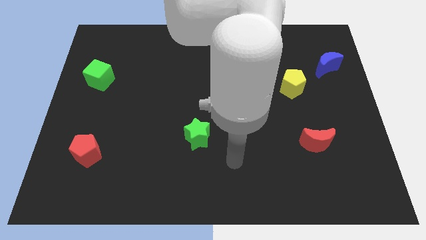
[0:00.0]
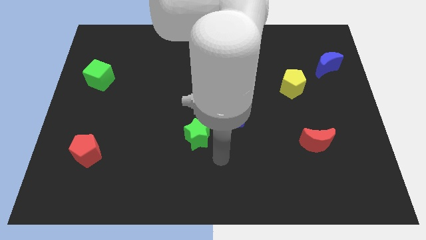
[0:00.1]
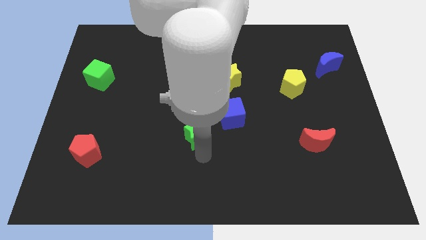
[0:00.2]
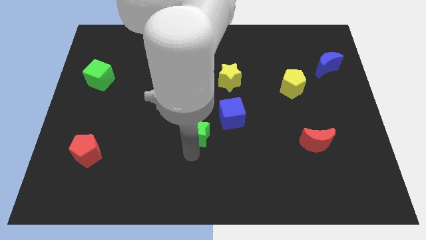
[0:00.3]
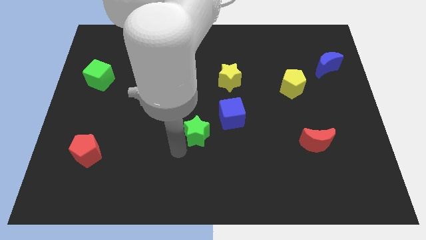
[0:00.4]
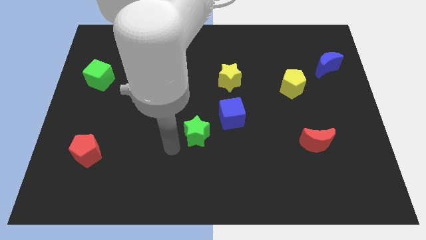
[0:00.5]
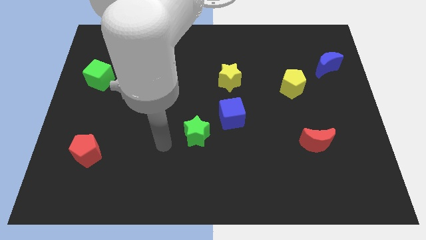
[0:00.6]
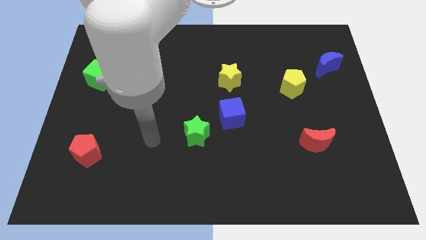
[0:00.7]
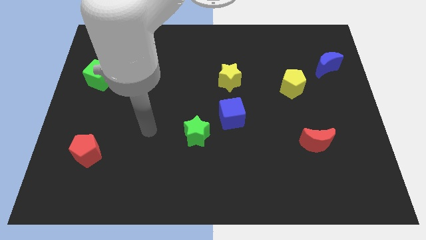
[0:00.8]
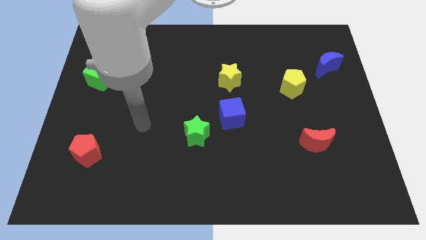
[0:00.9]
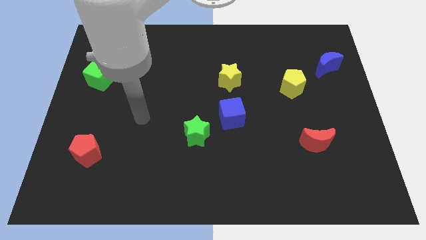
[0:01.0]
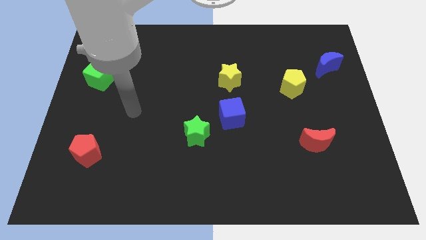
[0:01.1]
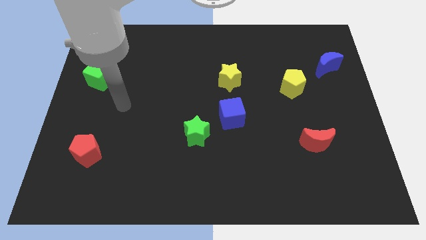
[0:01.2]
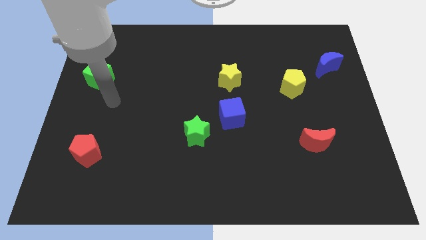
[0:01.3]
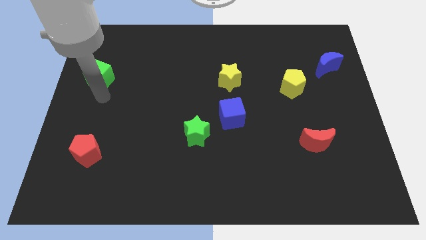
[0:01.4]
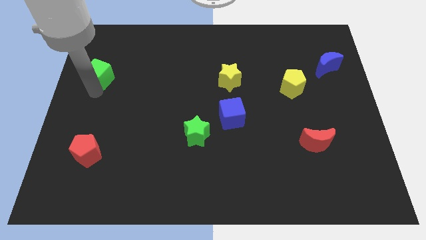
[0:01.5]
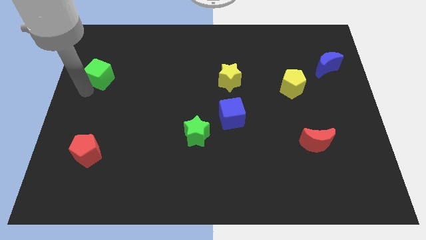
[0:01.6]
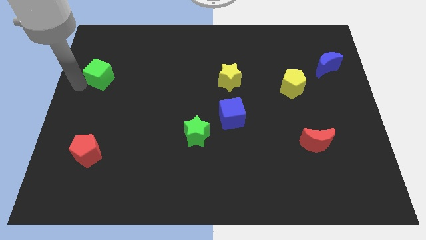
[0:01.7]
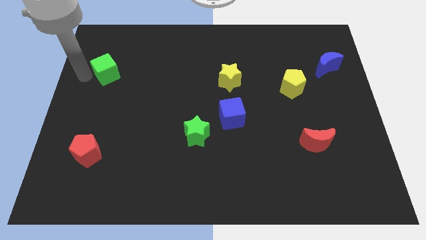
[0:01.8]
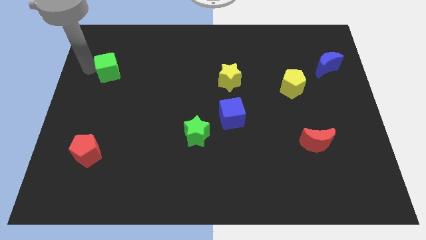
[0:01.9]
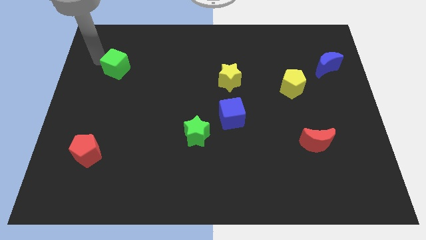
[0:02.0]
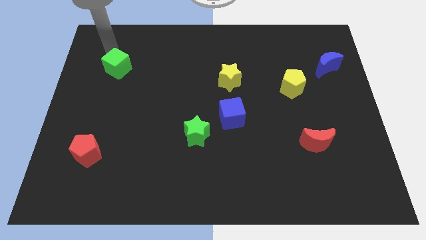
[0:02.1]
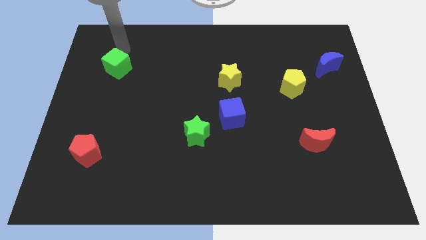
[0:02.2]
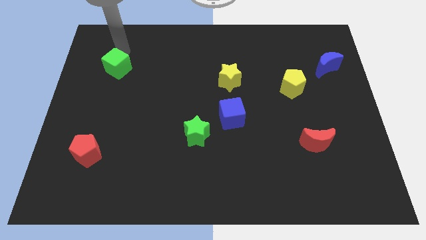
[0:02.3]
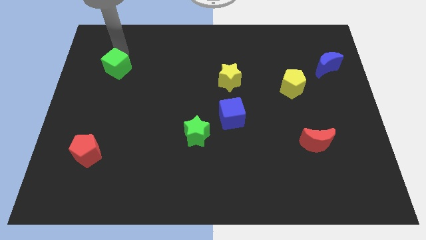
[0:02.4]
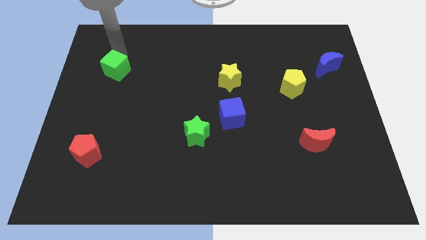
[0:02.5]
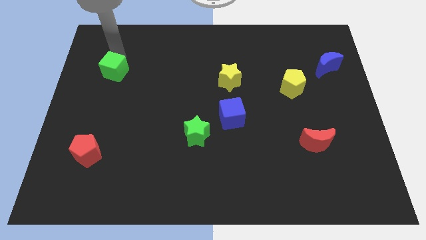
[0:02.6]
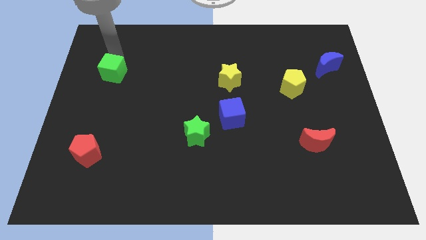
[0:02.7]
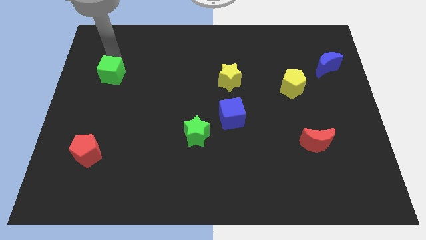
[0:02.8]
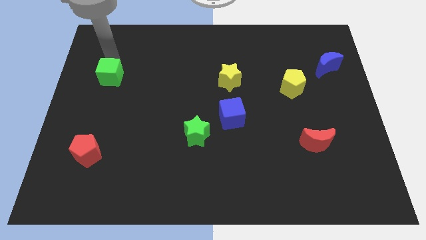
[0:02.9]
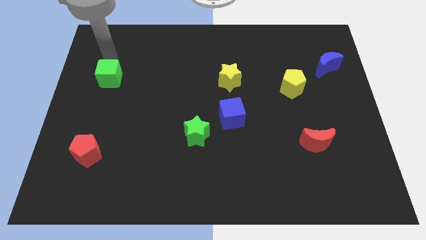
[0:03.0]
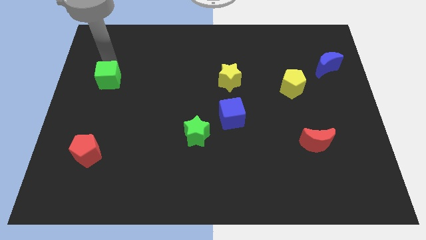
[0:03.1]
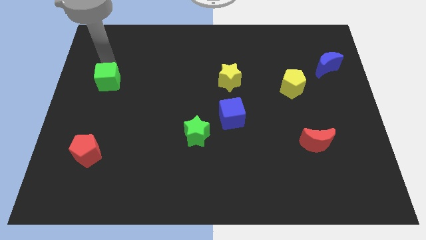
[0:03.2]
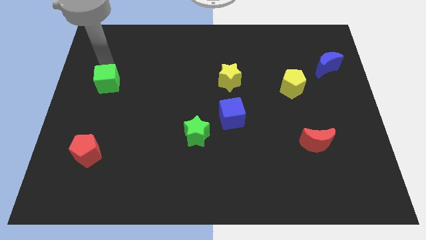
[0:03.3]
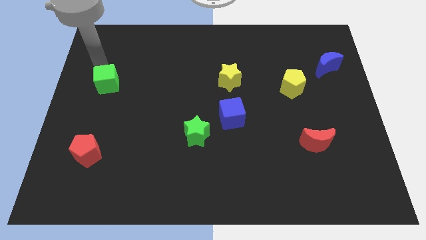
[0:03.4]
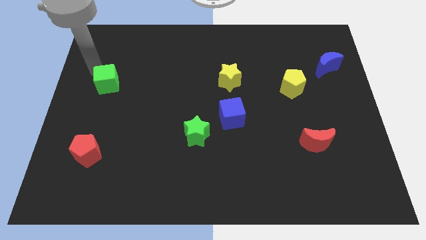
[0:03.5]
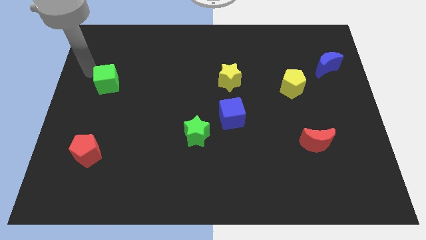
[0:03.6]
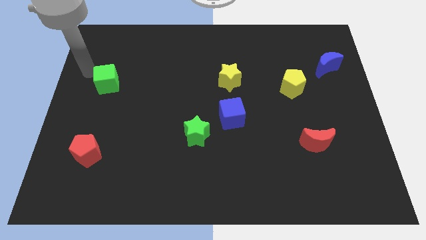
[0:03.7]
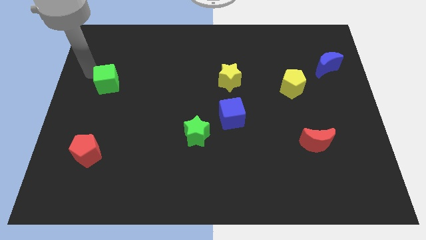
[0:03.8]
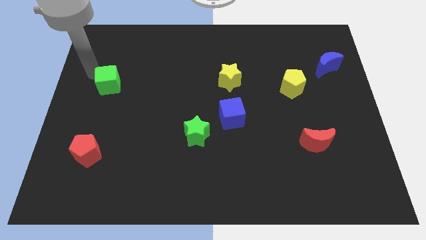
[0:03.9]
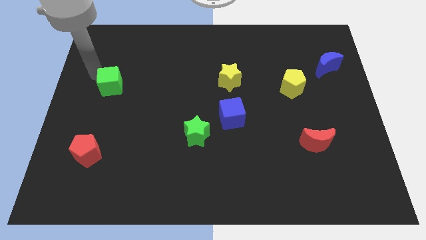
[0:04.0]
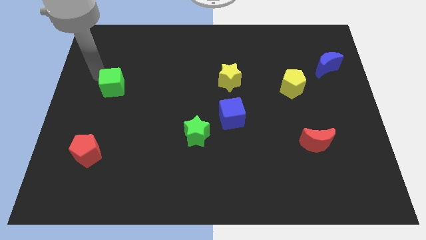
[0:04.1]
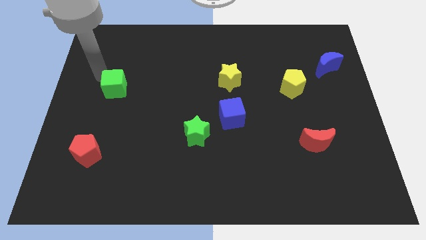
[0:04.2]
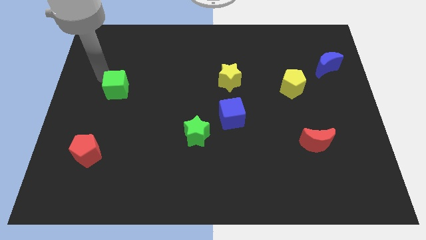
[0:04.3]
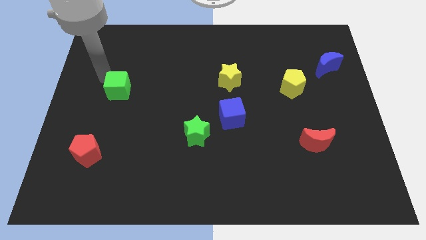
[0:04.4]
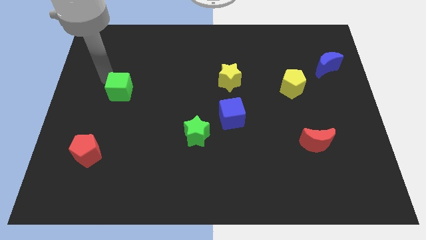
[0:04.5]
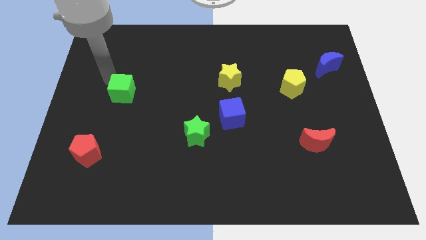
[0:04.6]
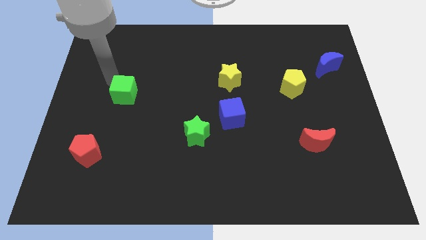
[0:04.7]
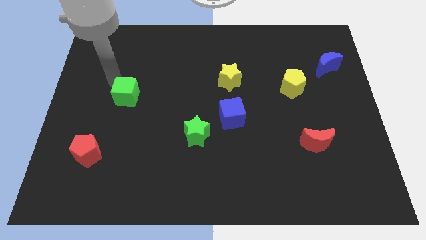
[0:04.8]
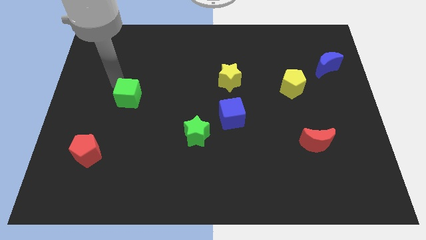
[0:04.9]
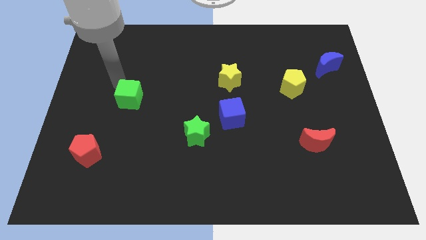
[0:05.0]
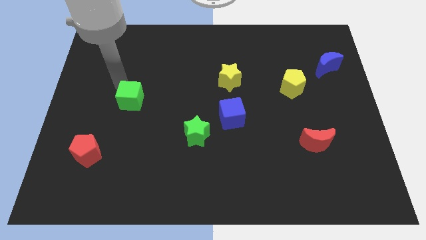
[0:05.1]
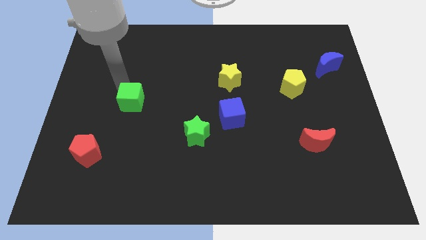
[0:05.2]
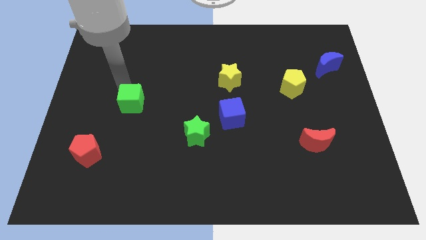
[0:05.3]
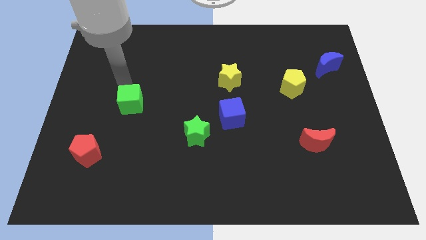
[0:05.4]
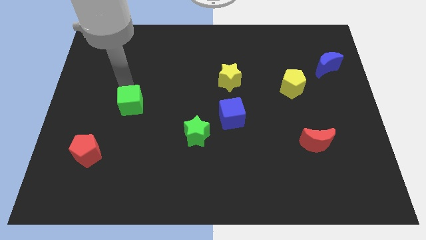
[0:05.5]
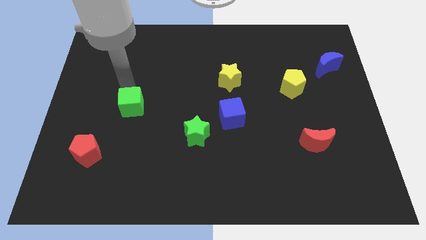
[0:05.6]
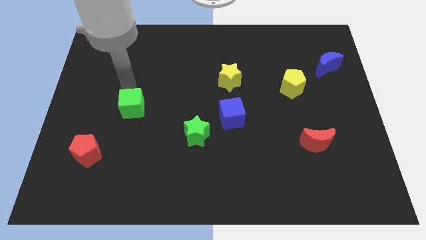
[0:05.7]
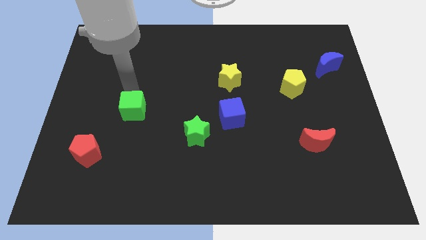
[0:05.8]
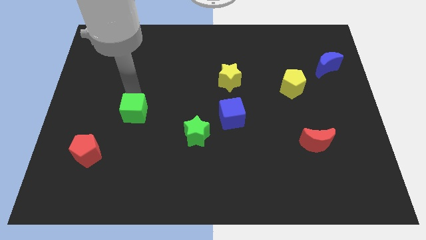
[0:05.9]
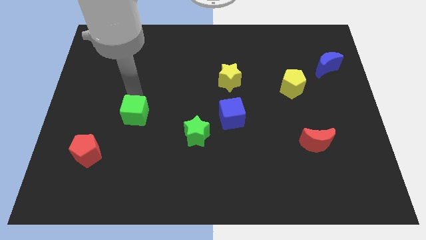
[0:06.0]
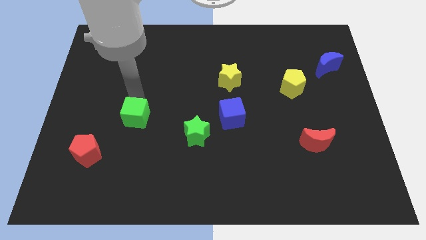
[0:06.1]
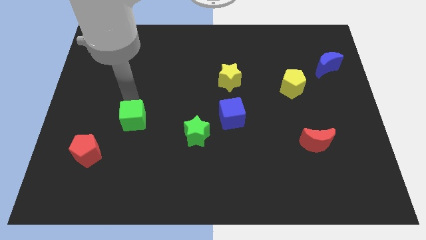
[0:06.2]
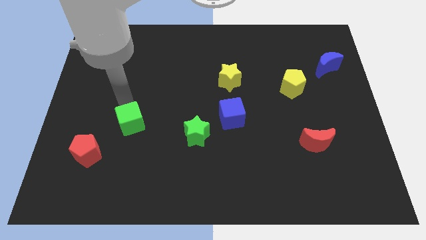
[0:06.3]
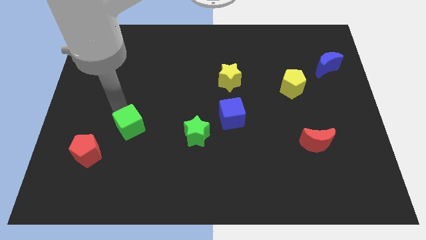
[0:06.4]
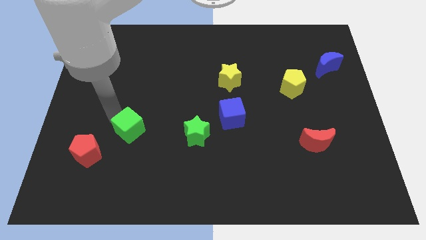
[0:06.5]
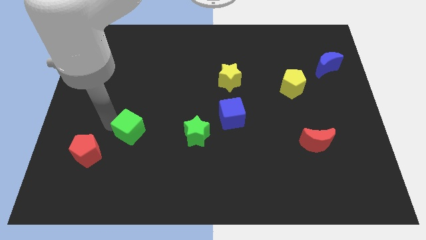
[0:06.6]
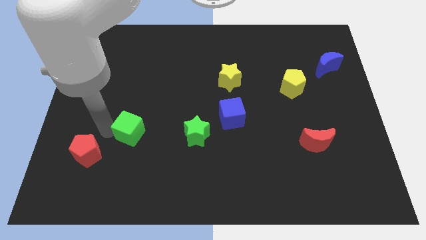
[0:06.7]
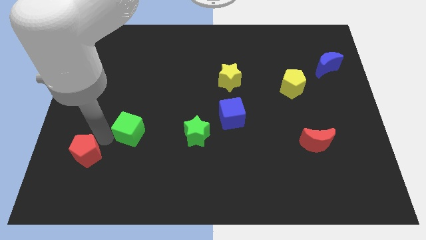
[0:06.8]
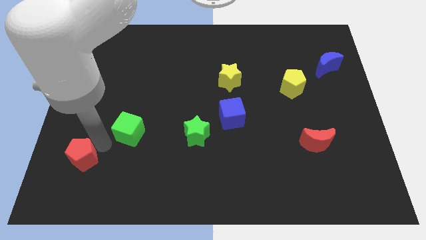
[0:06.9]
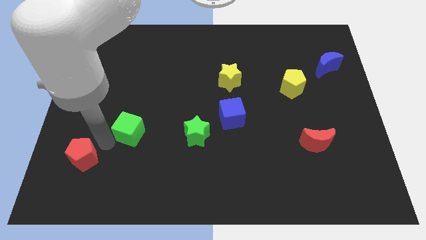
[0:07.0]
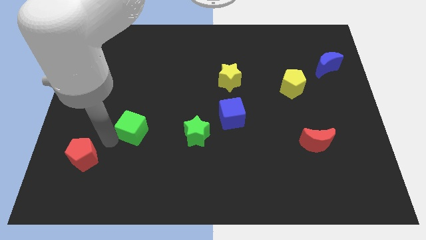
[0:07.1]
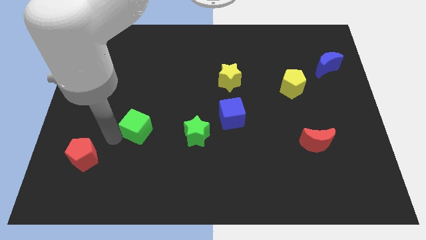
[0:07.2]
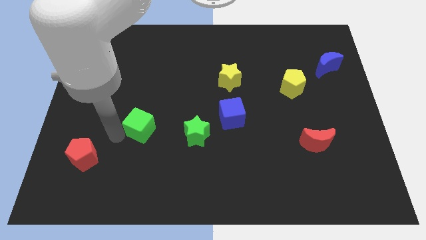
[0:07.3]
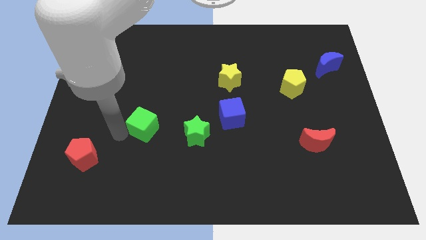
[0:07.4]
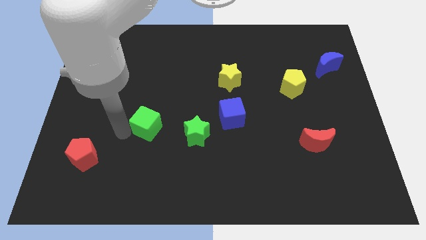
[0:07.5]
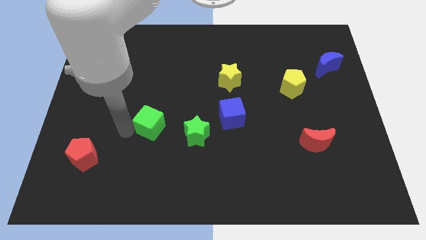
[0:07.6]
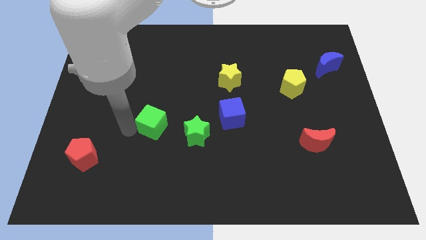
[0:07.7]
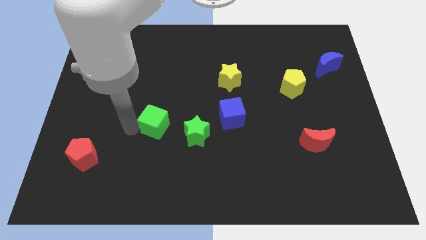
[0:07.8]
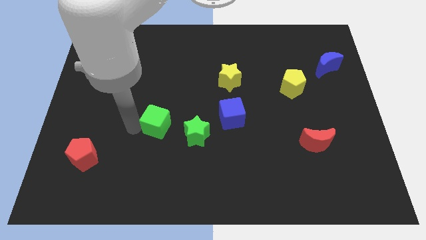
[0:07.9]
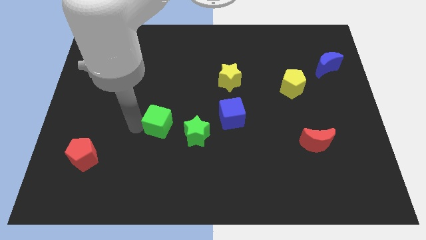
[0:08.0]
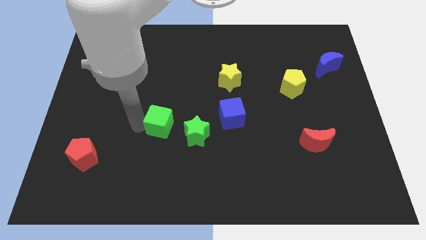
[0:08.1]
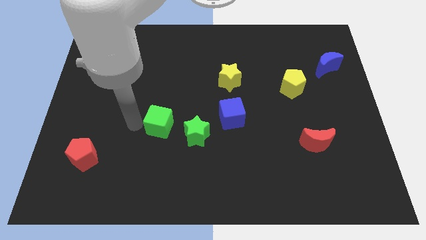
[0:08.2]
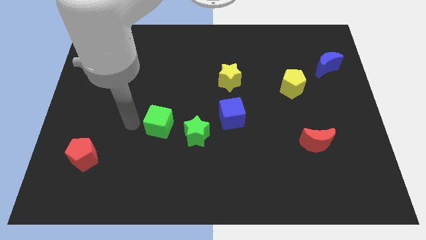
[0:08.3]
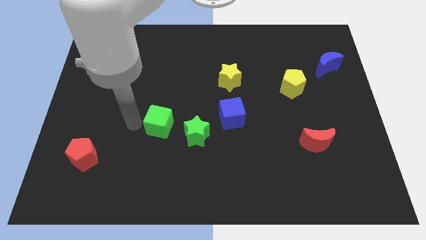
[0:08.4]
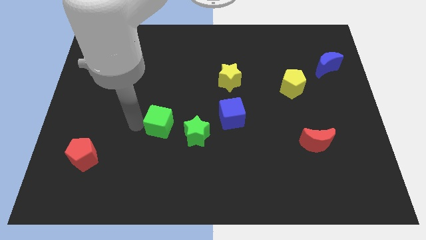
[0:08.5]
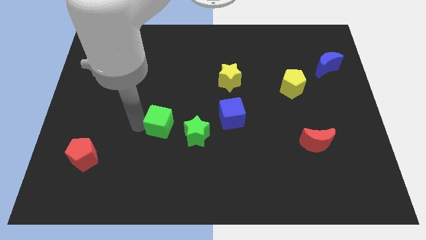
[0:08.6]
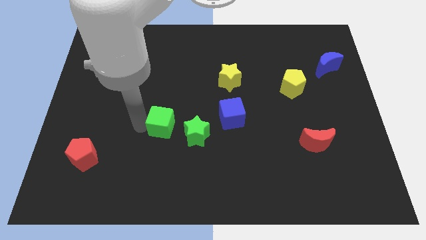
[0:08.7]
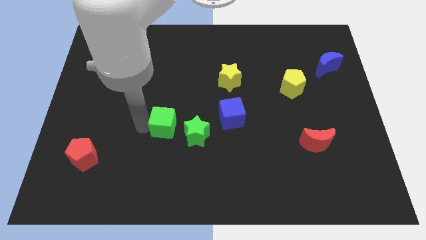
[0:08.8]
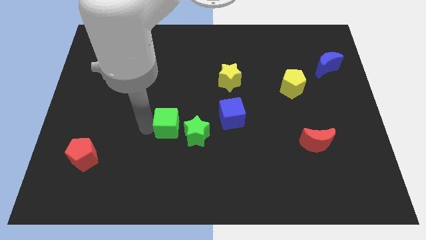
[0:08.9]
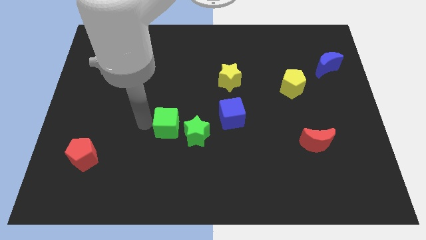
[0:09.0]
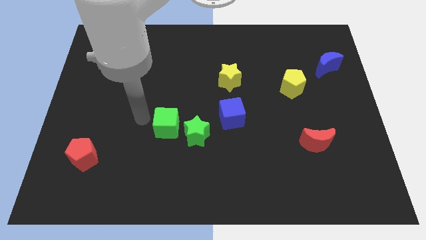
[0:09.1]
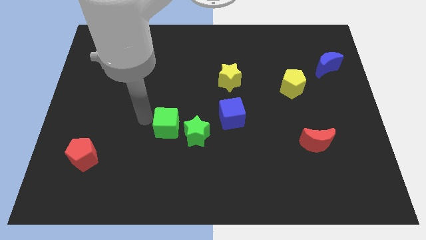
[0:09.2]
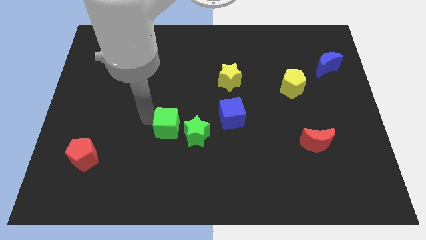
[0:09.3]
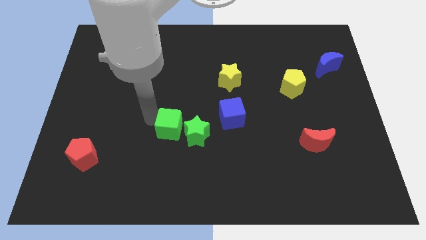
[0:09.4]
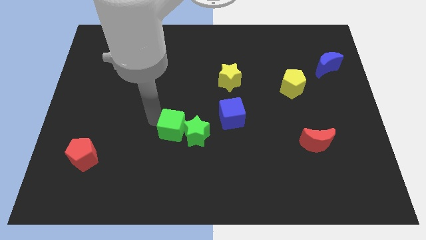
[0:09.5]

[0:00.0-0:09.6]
move the green cube next to the green star
